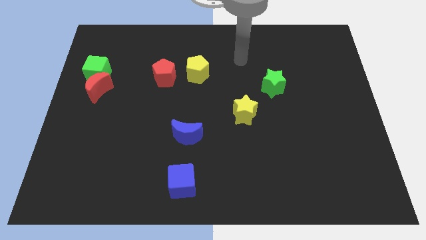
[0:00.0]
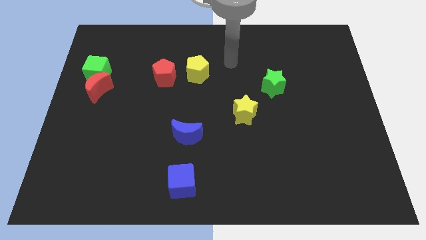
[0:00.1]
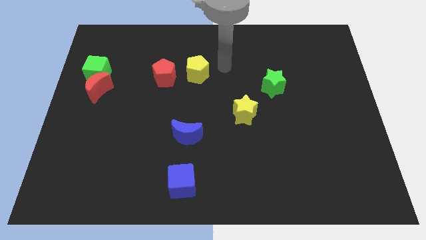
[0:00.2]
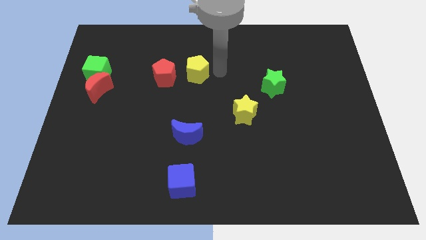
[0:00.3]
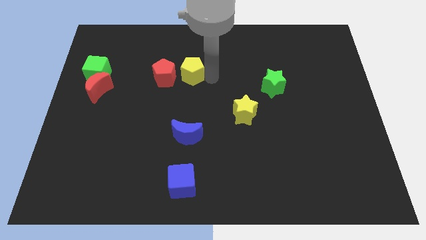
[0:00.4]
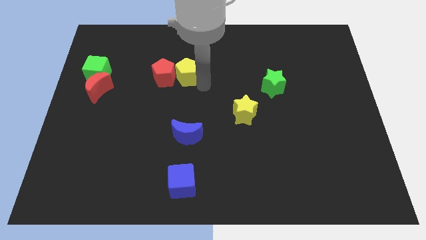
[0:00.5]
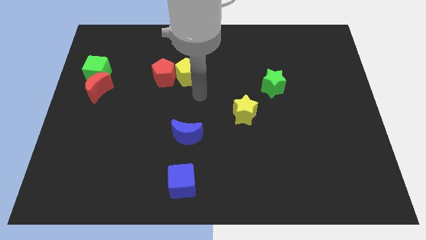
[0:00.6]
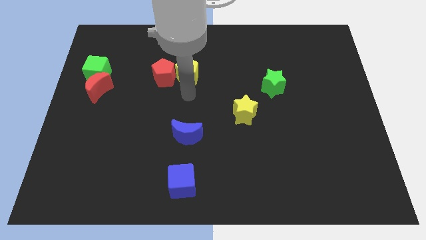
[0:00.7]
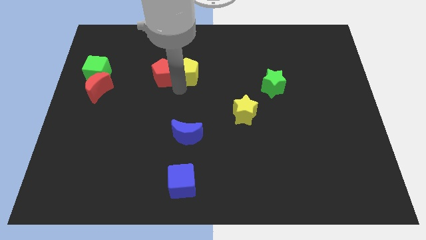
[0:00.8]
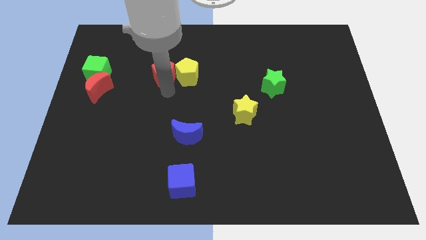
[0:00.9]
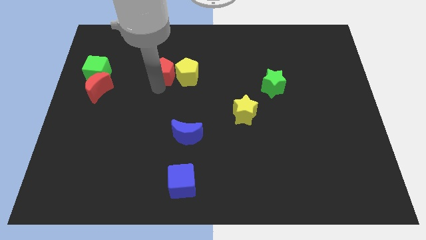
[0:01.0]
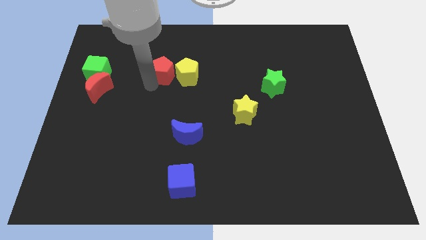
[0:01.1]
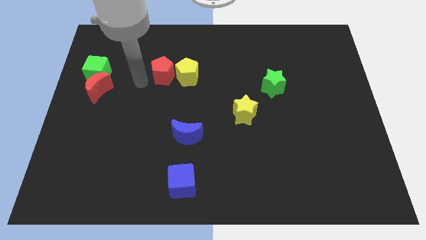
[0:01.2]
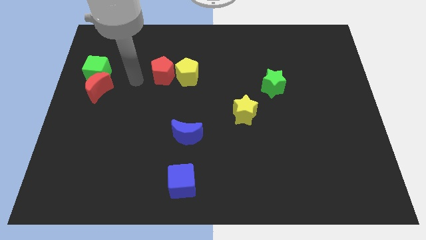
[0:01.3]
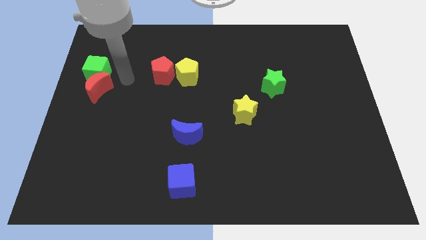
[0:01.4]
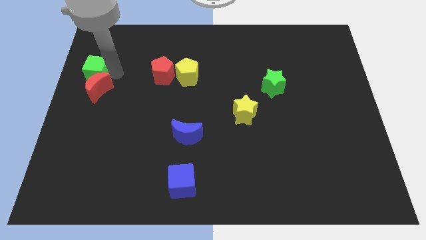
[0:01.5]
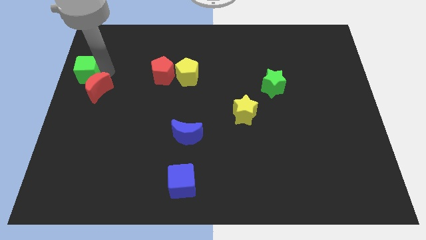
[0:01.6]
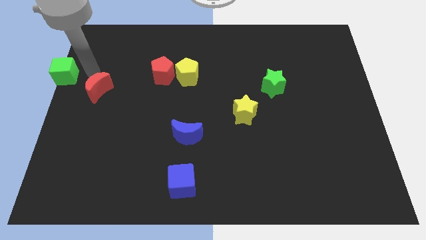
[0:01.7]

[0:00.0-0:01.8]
move the red moon away from the green cube

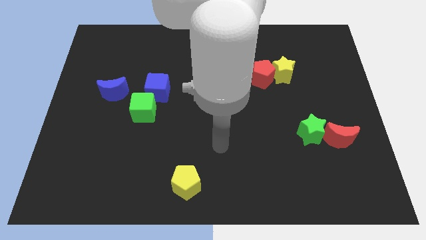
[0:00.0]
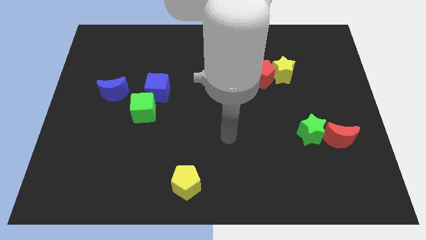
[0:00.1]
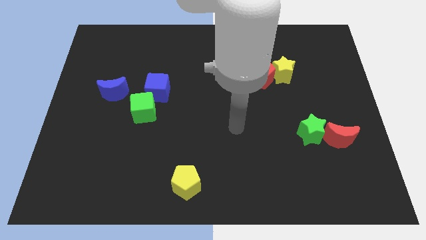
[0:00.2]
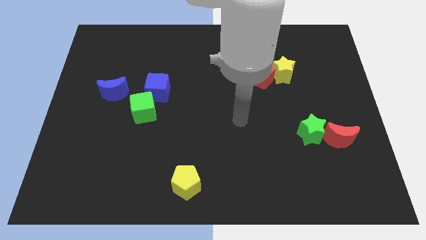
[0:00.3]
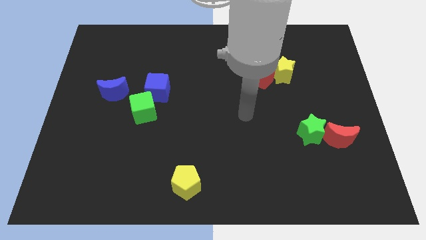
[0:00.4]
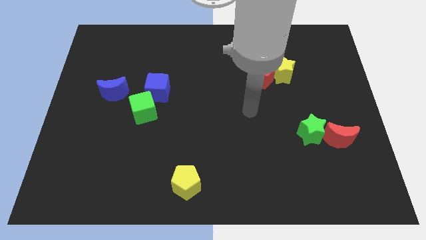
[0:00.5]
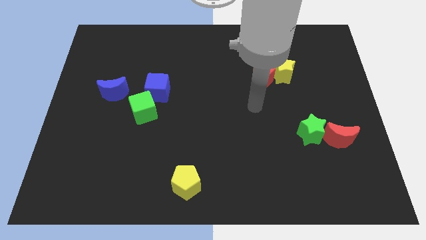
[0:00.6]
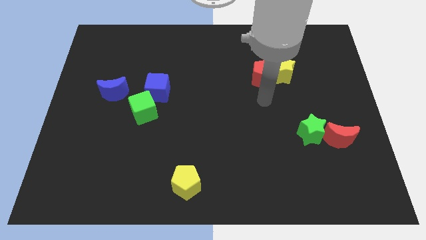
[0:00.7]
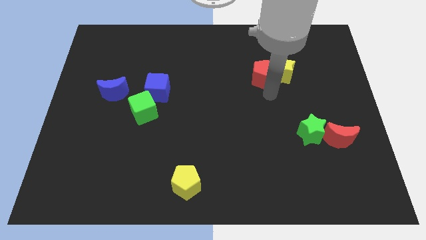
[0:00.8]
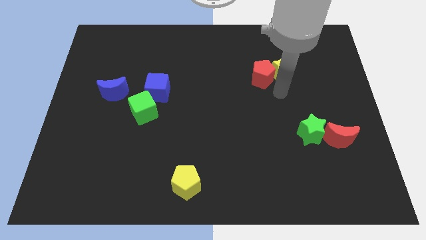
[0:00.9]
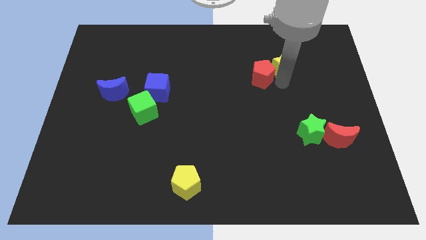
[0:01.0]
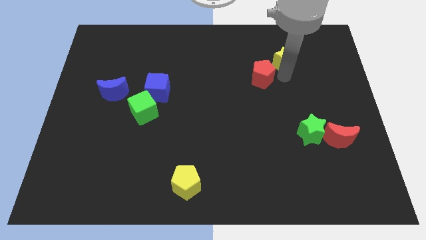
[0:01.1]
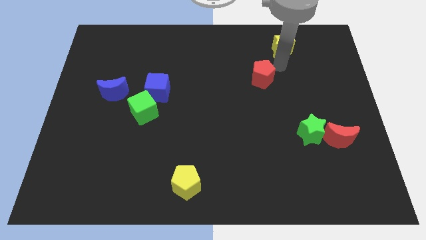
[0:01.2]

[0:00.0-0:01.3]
pull the red pentagon apart from the yellow star

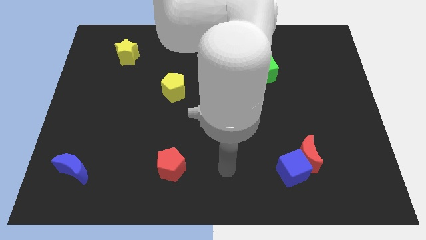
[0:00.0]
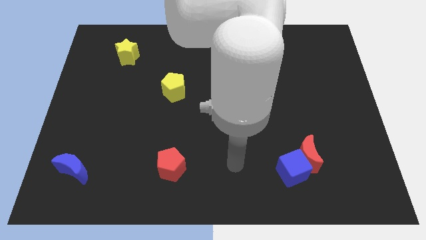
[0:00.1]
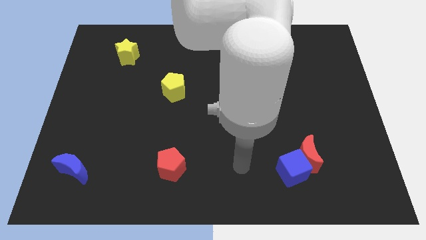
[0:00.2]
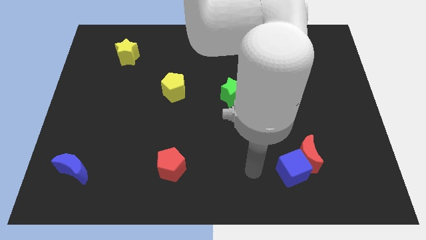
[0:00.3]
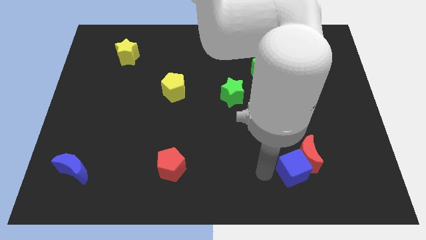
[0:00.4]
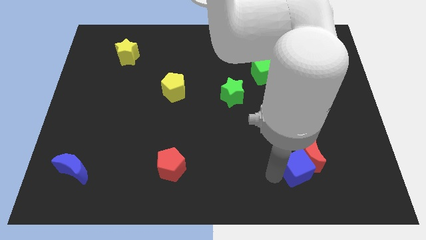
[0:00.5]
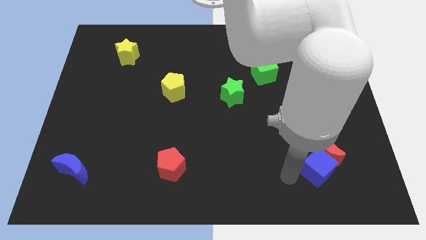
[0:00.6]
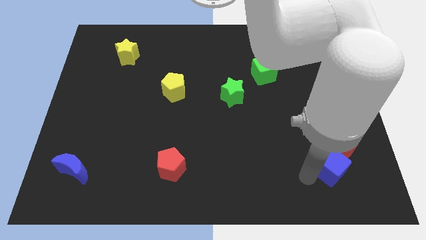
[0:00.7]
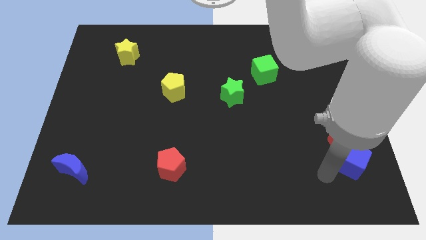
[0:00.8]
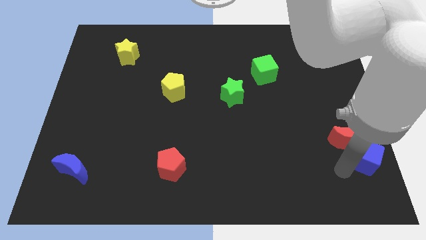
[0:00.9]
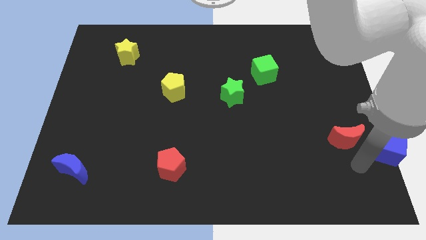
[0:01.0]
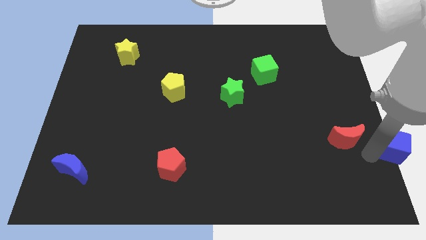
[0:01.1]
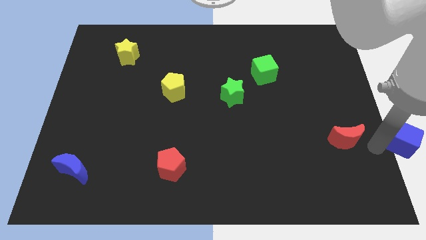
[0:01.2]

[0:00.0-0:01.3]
pull the red moon apart from the blue cube

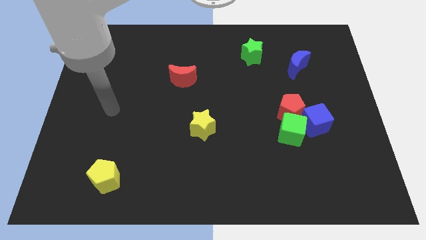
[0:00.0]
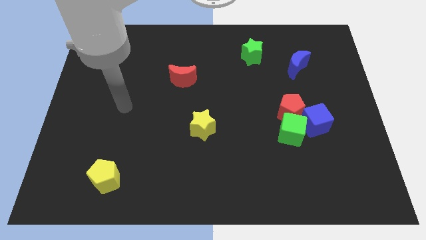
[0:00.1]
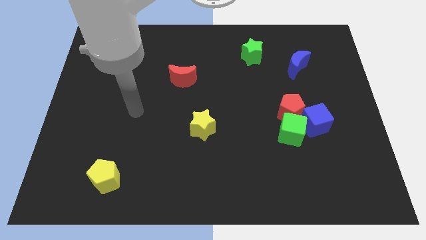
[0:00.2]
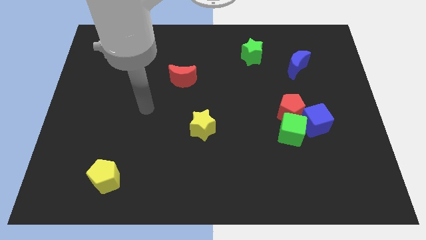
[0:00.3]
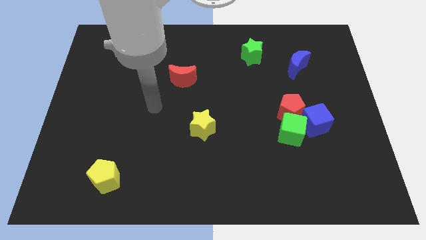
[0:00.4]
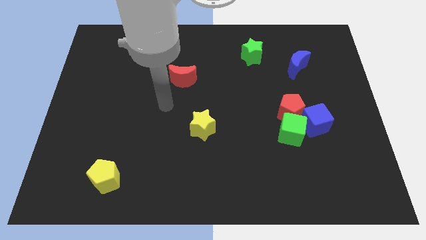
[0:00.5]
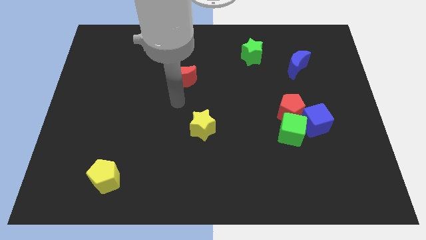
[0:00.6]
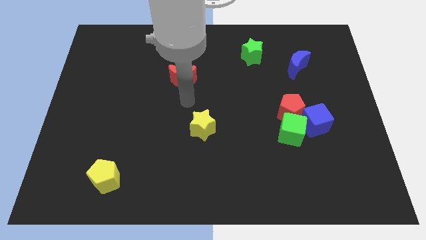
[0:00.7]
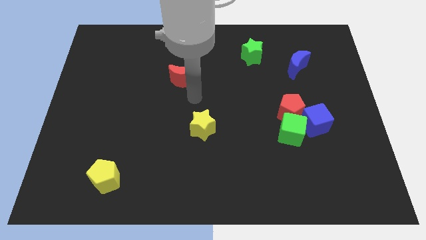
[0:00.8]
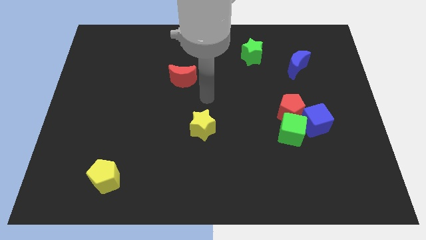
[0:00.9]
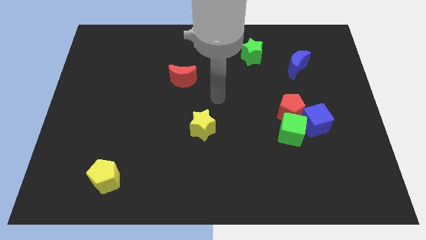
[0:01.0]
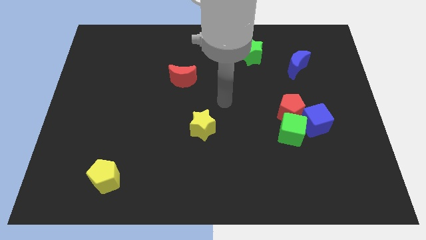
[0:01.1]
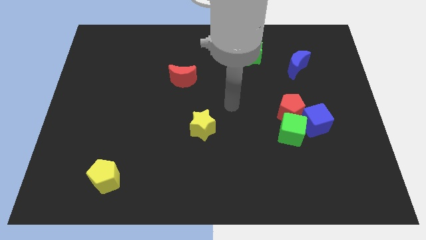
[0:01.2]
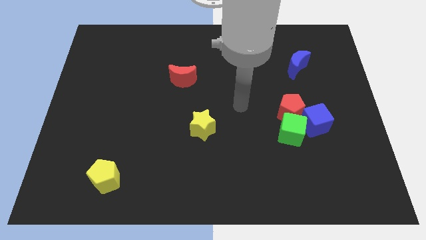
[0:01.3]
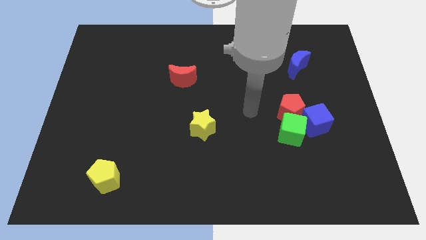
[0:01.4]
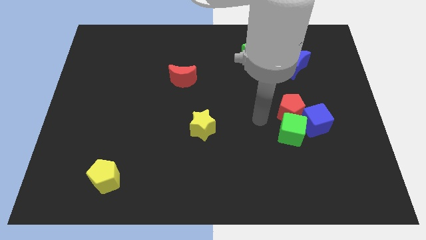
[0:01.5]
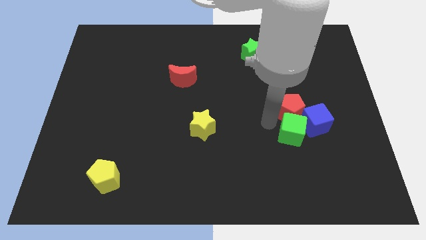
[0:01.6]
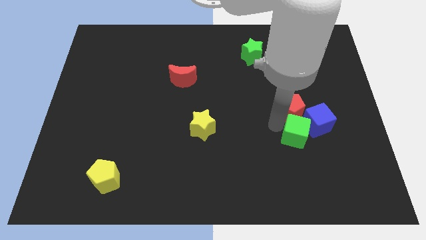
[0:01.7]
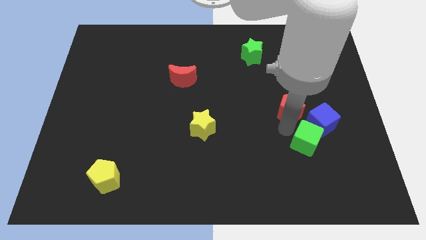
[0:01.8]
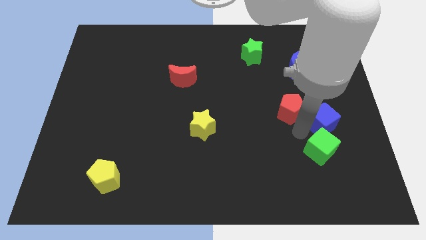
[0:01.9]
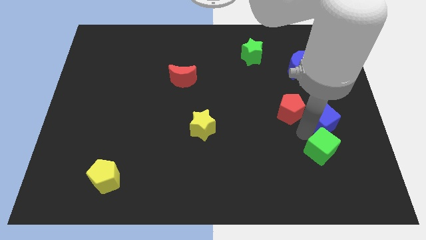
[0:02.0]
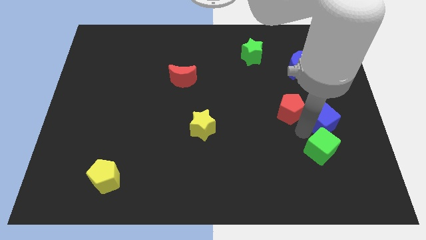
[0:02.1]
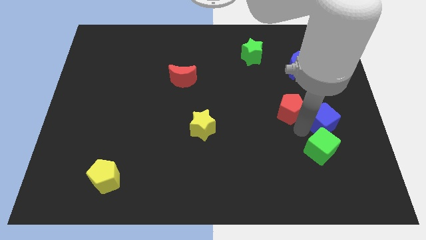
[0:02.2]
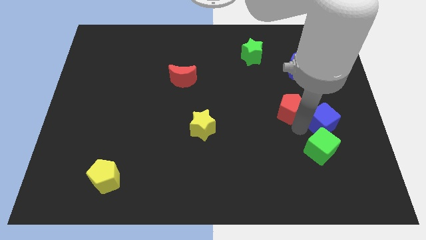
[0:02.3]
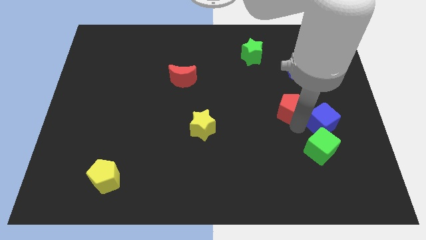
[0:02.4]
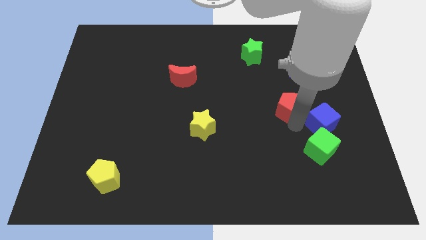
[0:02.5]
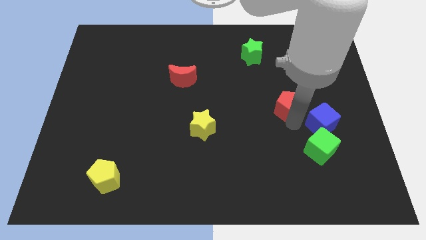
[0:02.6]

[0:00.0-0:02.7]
move the red pentagon away from the green cube and blue cube

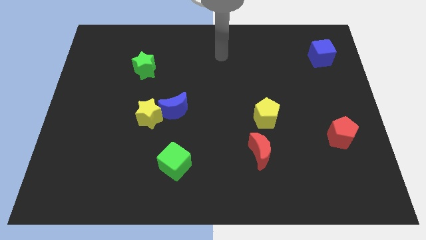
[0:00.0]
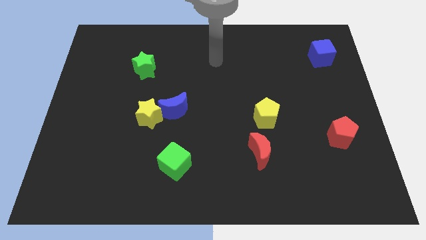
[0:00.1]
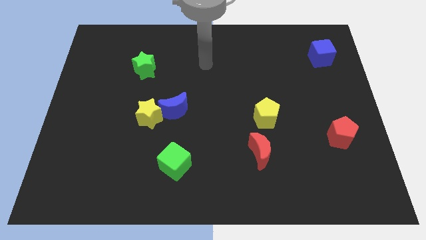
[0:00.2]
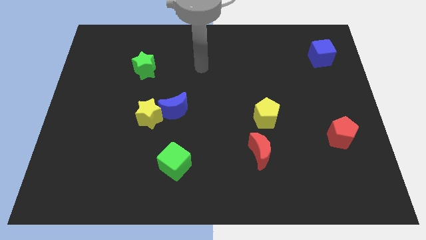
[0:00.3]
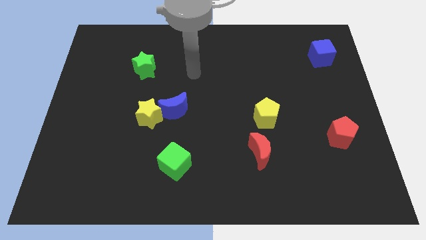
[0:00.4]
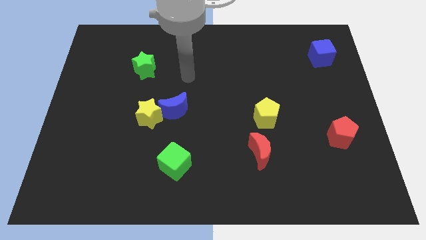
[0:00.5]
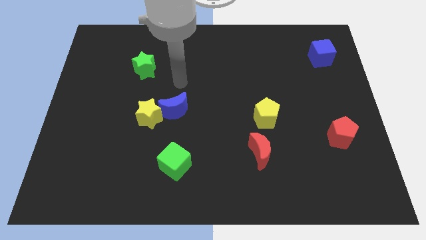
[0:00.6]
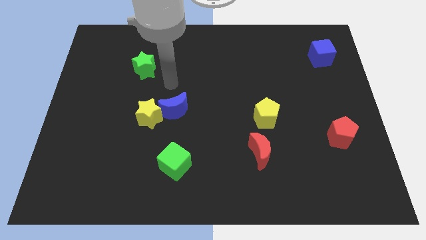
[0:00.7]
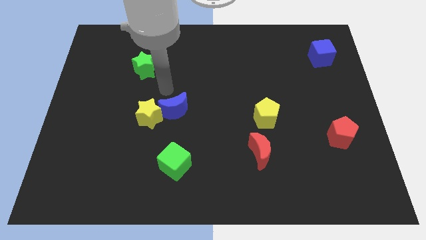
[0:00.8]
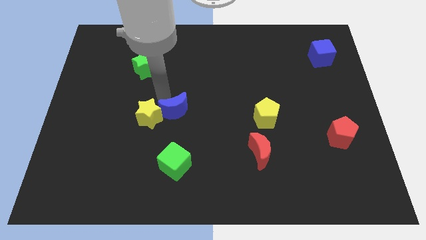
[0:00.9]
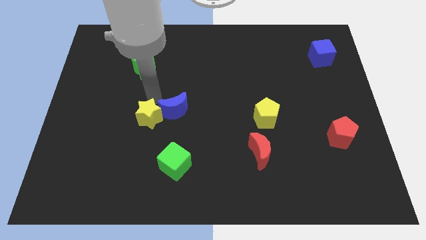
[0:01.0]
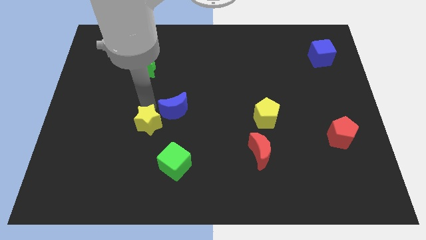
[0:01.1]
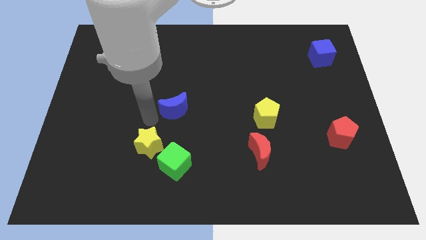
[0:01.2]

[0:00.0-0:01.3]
pull the blue moon apart from the yellow star

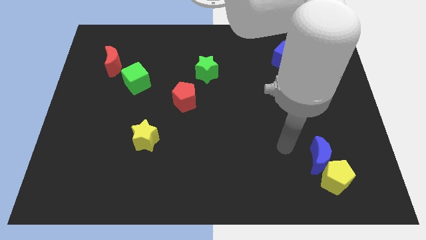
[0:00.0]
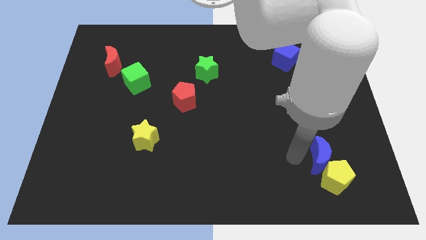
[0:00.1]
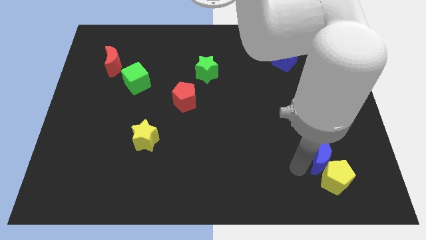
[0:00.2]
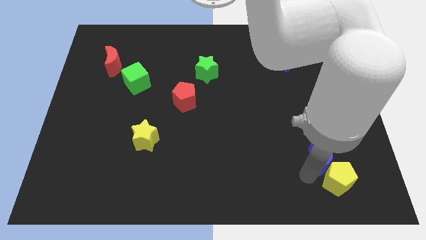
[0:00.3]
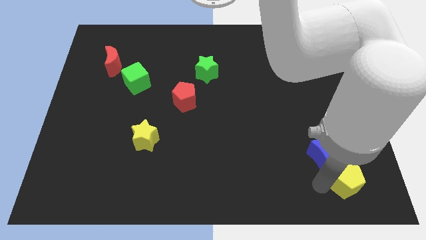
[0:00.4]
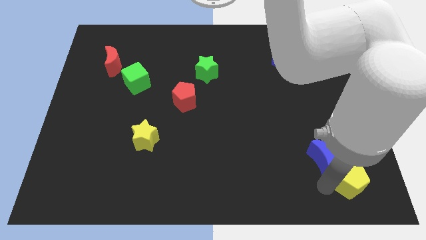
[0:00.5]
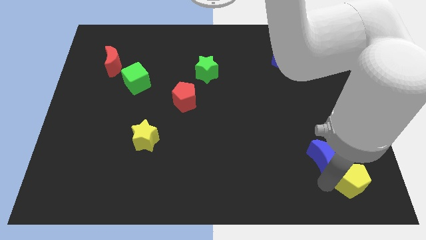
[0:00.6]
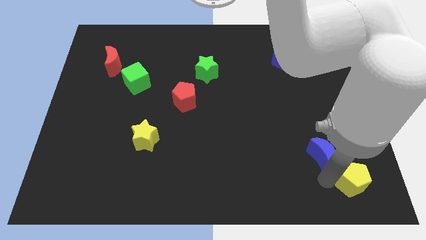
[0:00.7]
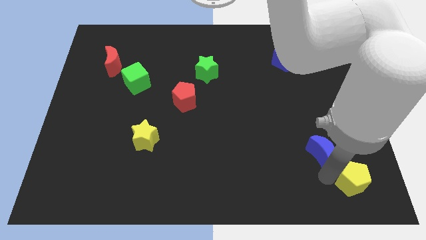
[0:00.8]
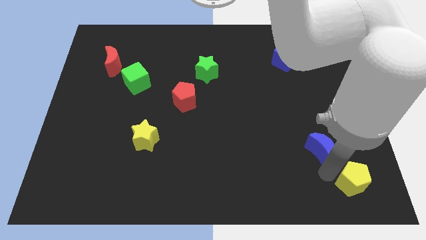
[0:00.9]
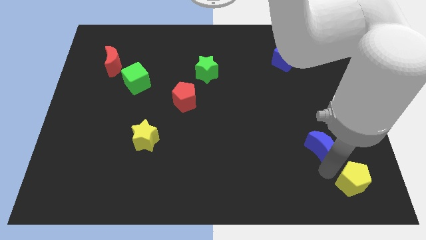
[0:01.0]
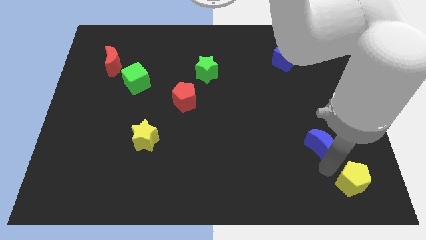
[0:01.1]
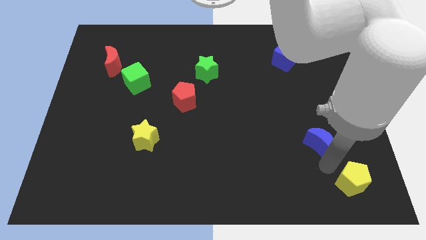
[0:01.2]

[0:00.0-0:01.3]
pull the blue moon apart from the yellow pentagon
